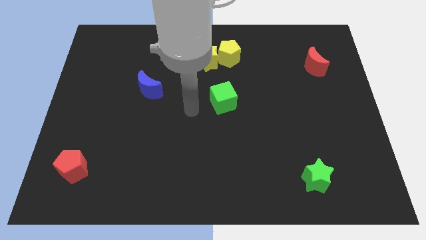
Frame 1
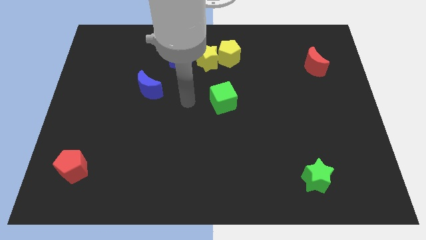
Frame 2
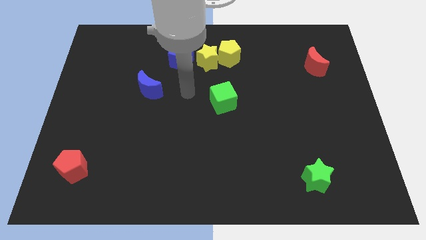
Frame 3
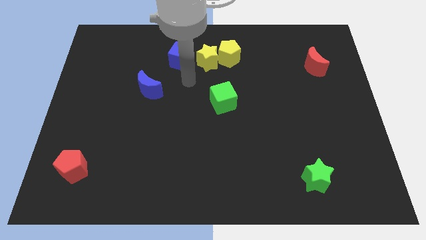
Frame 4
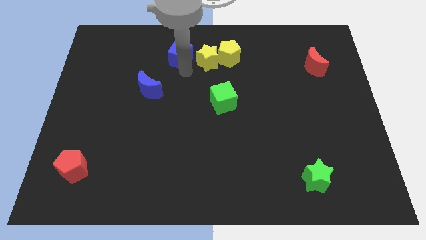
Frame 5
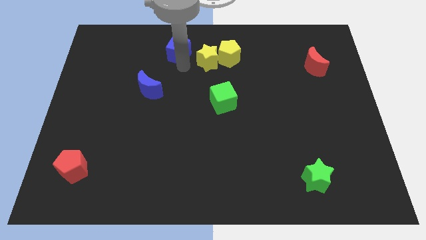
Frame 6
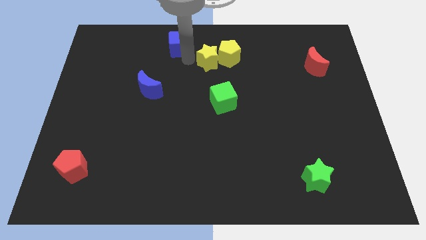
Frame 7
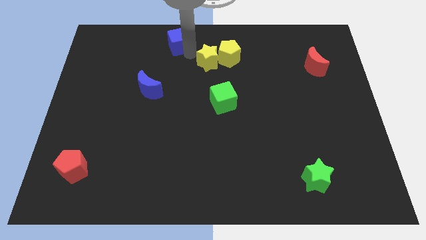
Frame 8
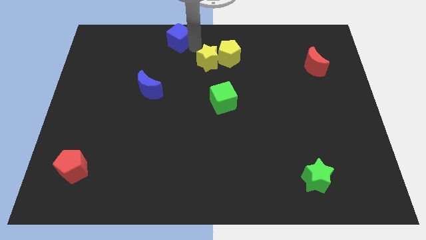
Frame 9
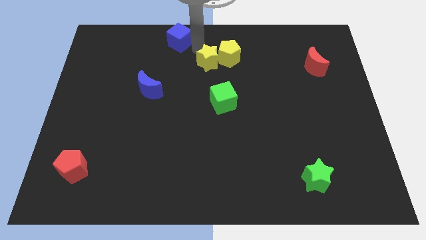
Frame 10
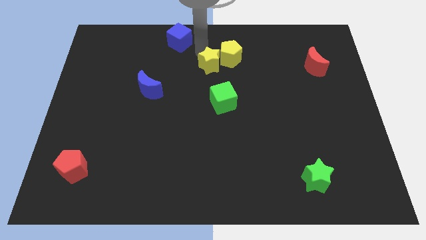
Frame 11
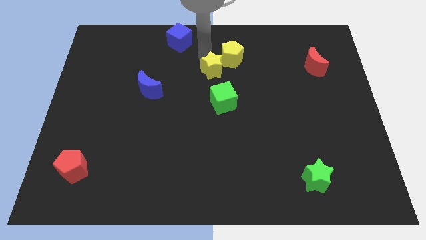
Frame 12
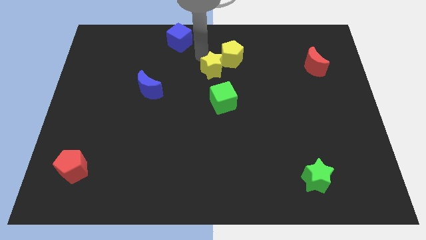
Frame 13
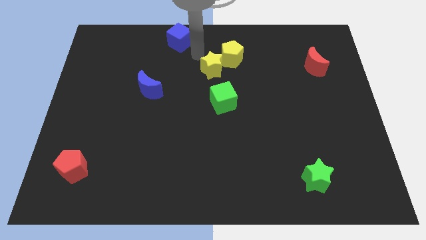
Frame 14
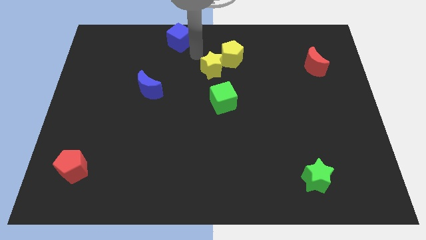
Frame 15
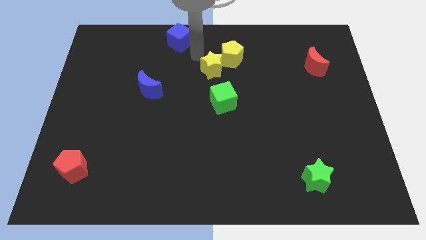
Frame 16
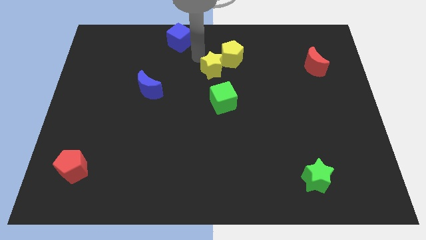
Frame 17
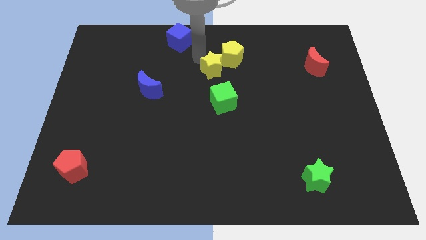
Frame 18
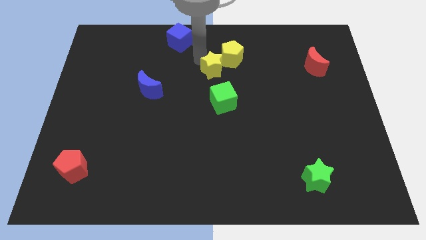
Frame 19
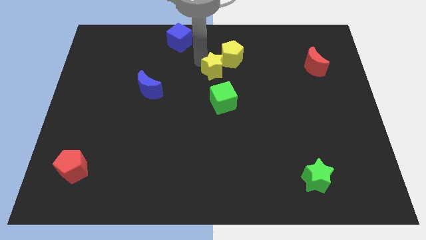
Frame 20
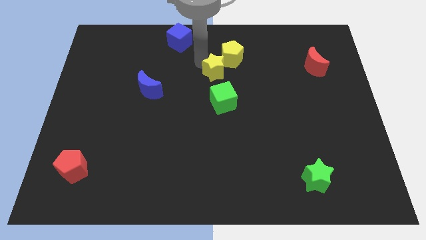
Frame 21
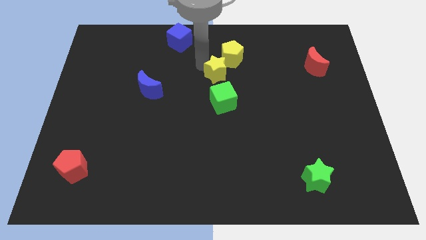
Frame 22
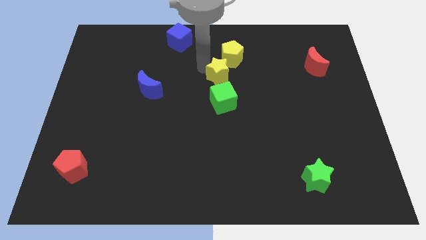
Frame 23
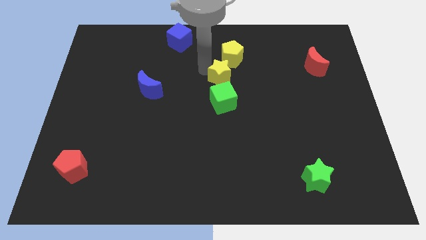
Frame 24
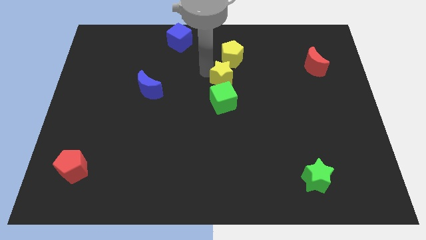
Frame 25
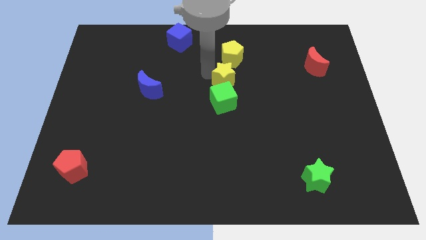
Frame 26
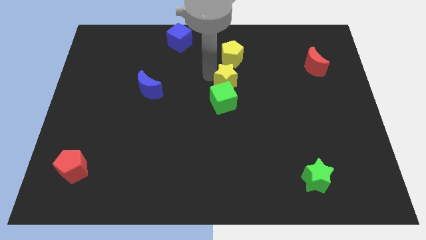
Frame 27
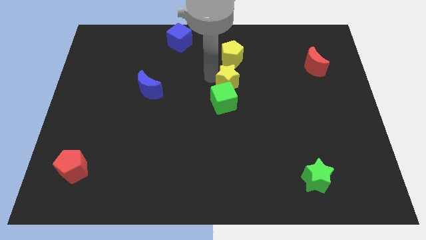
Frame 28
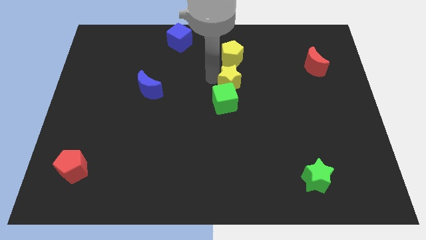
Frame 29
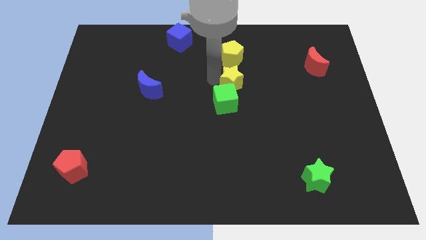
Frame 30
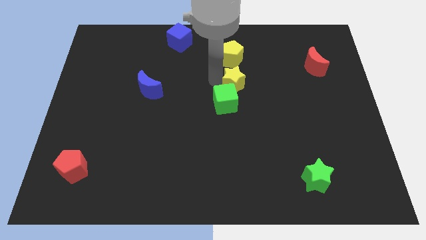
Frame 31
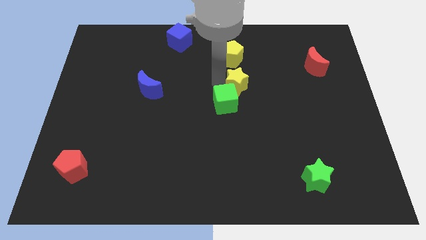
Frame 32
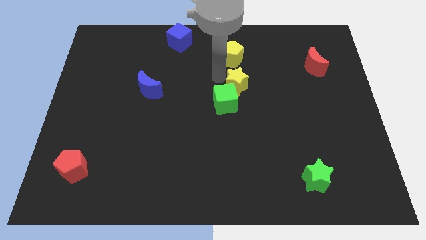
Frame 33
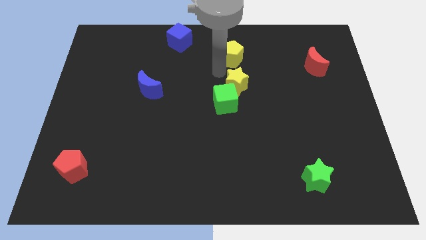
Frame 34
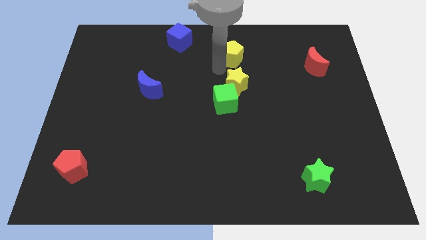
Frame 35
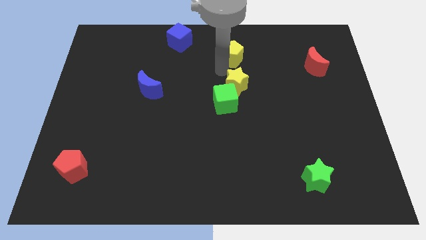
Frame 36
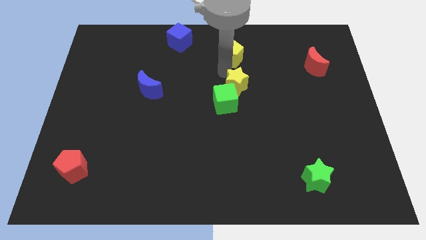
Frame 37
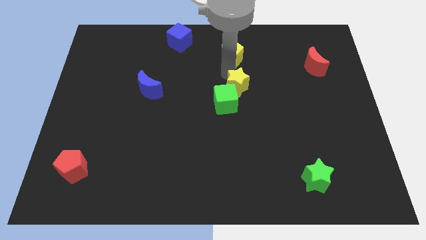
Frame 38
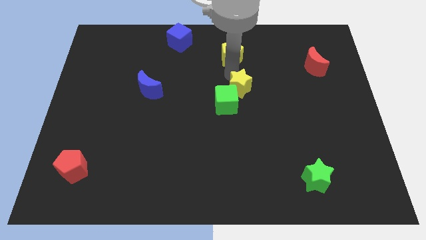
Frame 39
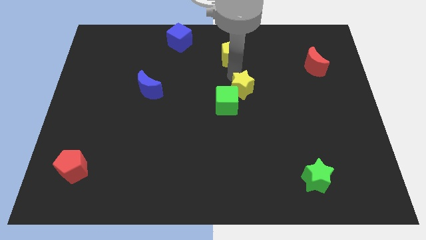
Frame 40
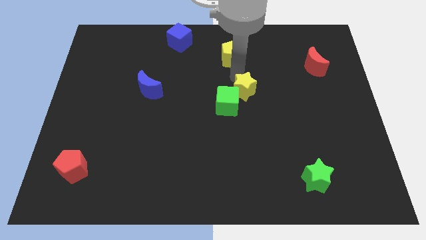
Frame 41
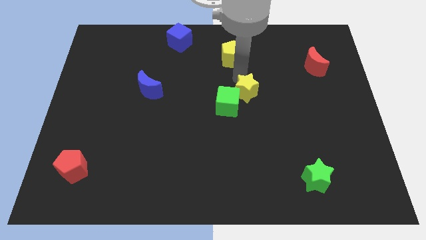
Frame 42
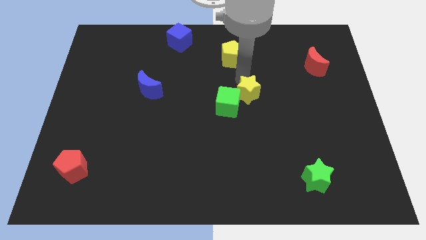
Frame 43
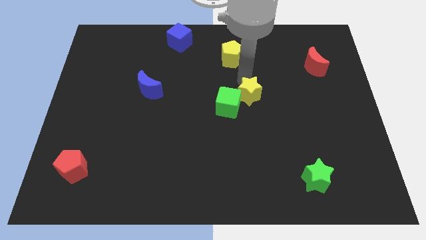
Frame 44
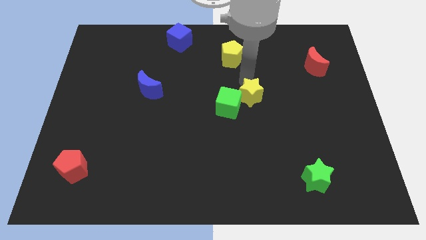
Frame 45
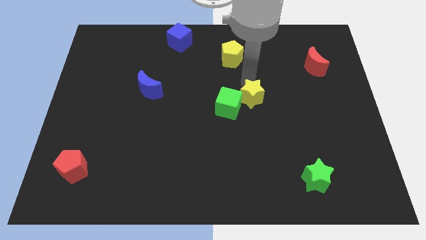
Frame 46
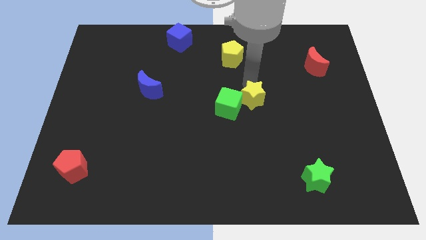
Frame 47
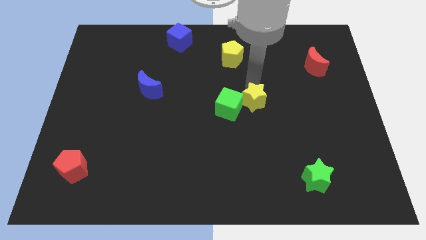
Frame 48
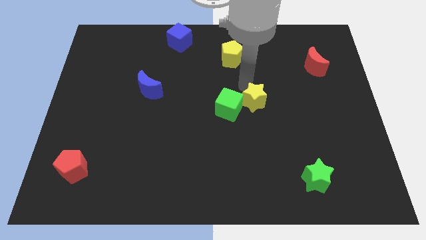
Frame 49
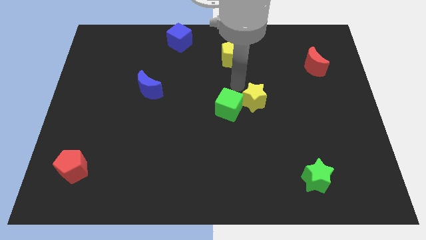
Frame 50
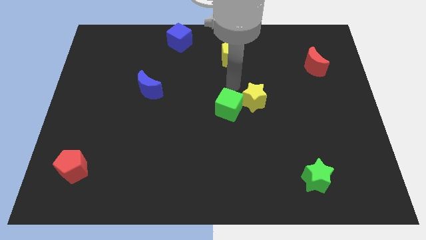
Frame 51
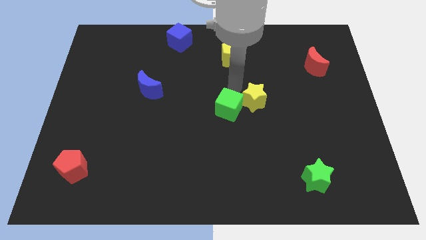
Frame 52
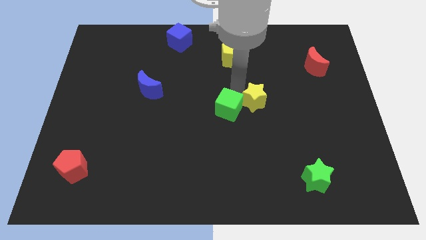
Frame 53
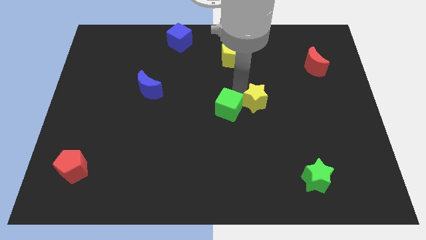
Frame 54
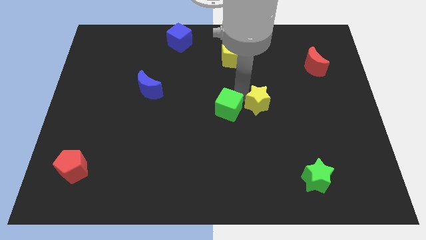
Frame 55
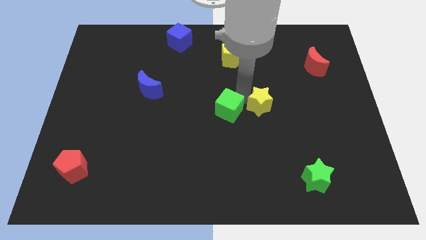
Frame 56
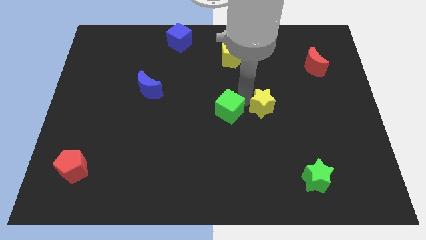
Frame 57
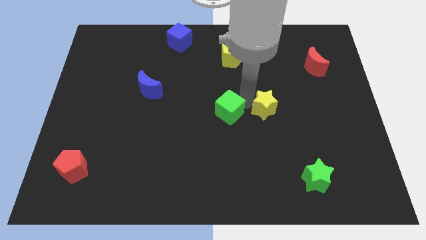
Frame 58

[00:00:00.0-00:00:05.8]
move the yellow star down and to the right

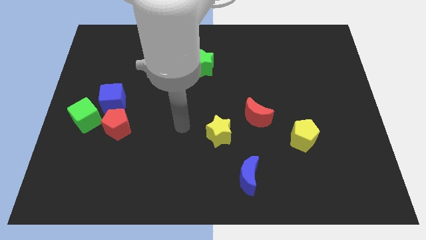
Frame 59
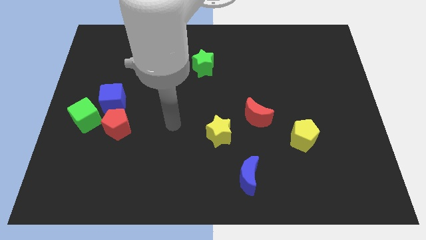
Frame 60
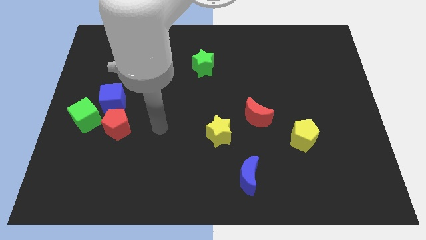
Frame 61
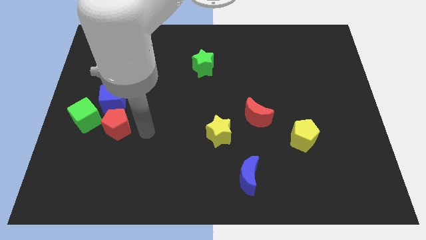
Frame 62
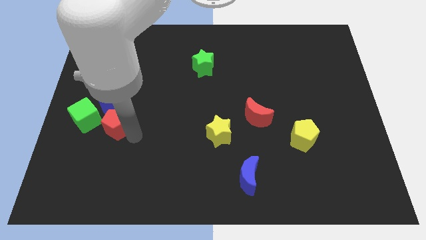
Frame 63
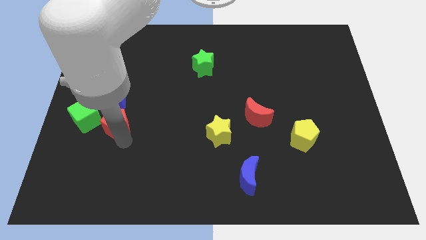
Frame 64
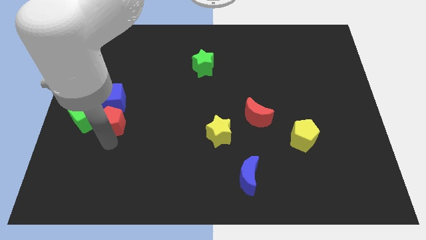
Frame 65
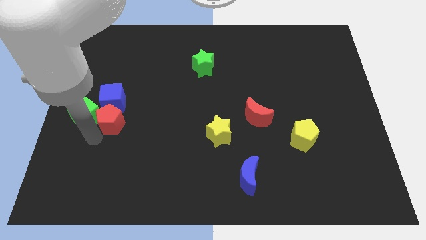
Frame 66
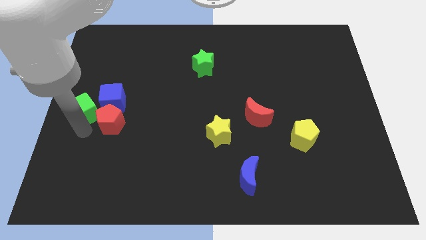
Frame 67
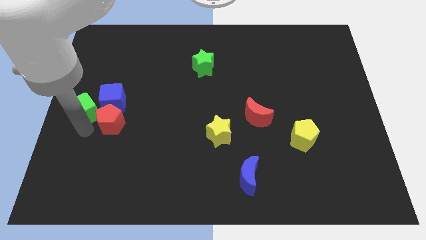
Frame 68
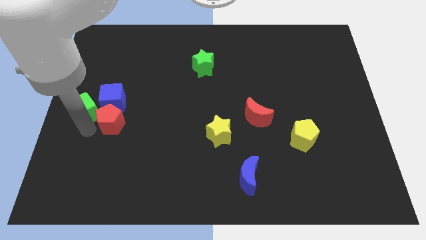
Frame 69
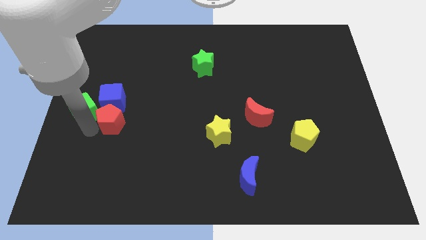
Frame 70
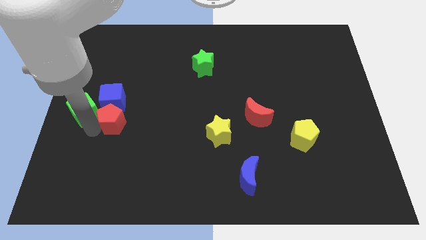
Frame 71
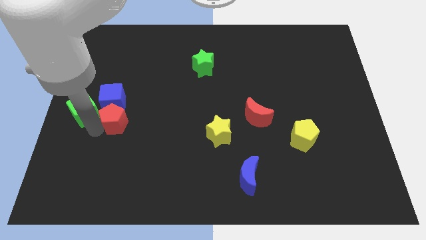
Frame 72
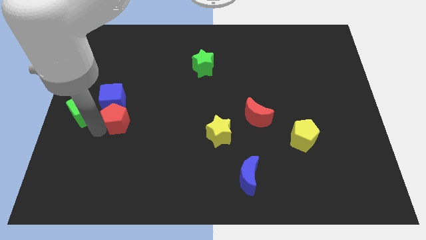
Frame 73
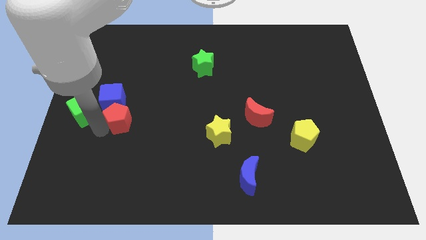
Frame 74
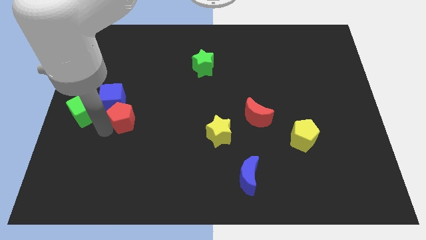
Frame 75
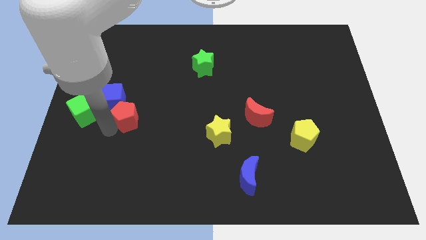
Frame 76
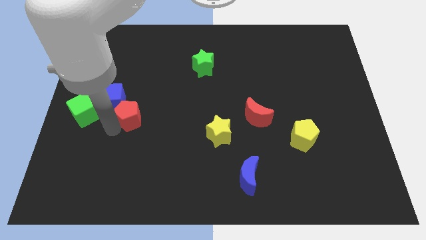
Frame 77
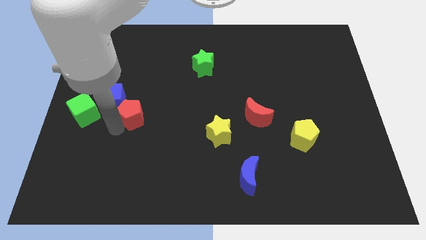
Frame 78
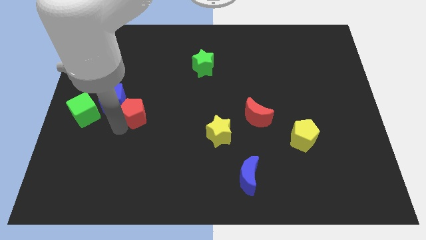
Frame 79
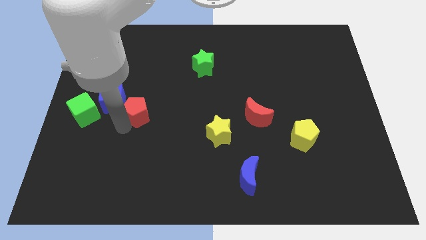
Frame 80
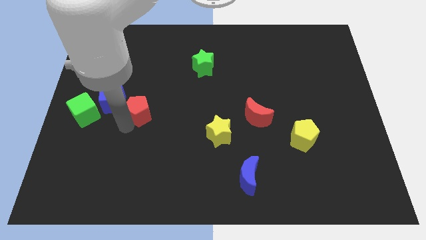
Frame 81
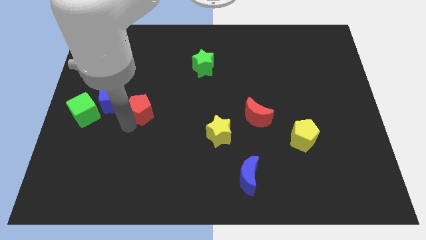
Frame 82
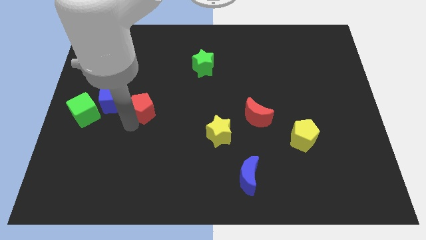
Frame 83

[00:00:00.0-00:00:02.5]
slide the red pentagon slightly upwards and then right
